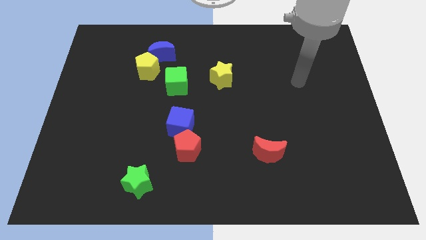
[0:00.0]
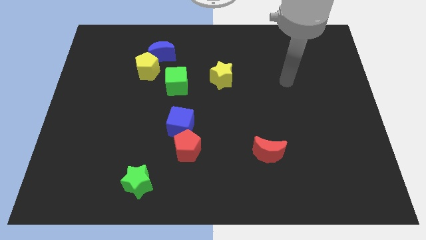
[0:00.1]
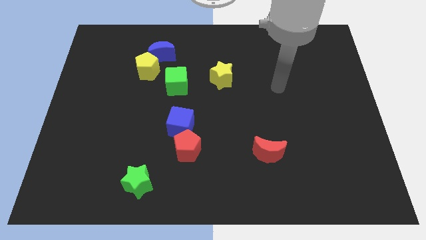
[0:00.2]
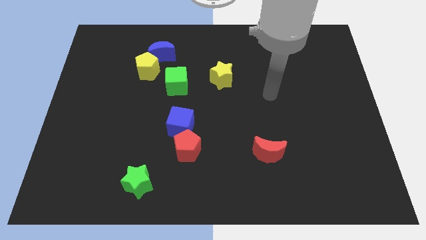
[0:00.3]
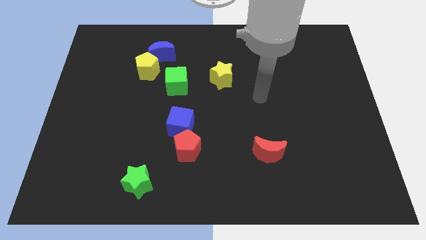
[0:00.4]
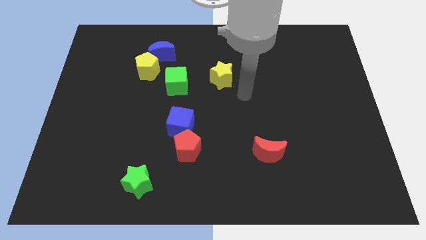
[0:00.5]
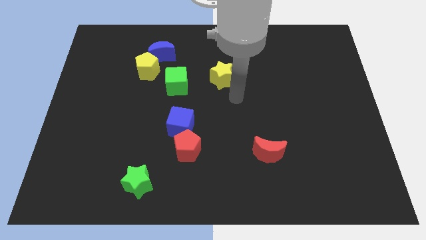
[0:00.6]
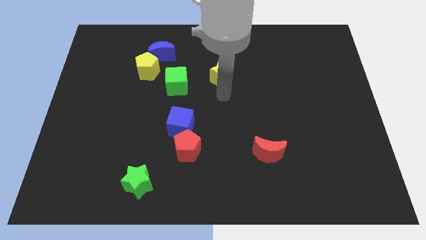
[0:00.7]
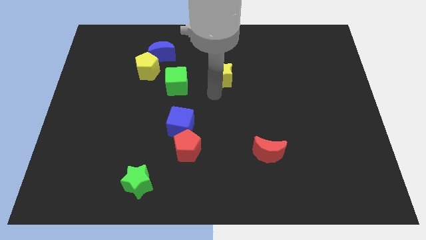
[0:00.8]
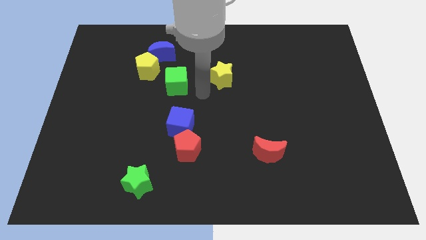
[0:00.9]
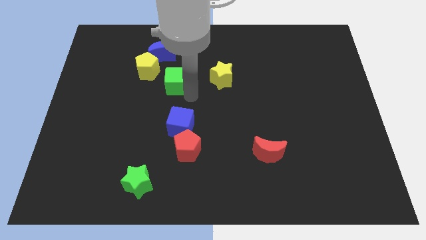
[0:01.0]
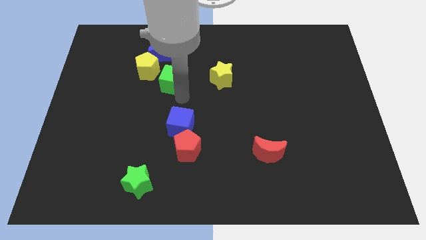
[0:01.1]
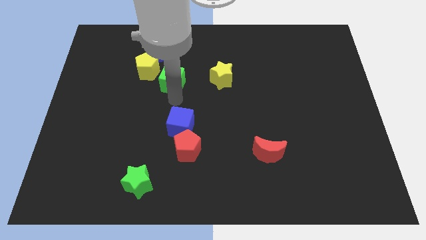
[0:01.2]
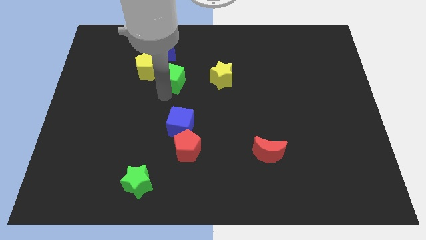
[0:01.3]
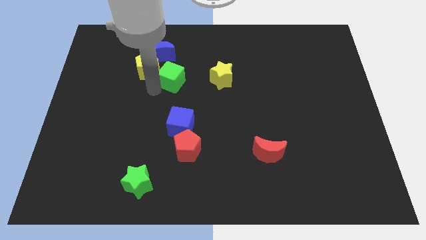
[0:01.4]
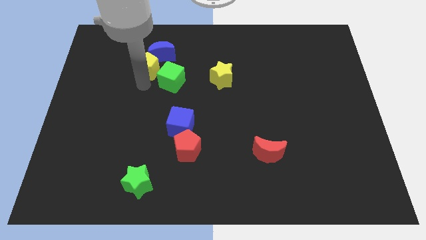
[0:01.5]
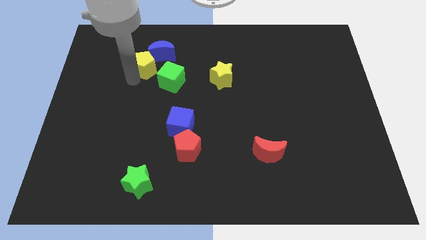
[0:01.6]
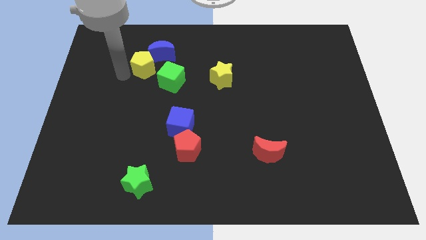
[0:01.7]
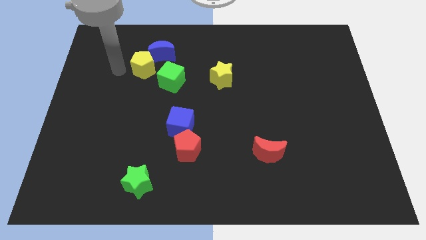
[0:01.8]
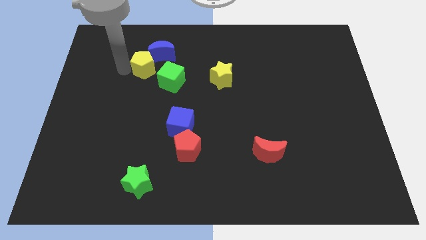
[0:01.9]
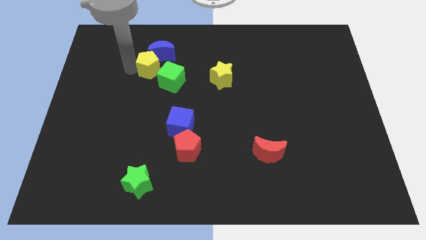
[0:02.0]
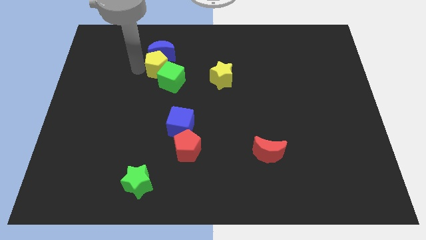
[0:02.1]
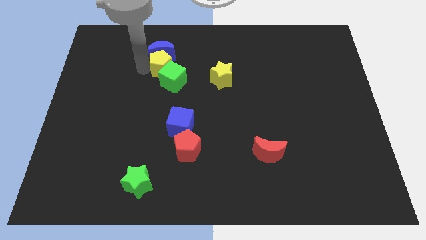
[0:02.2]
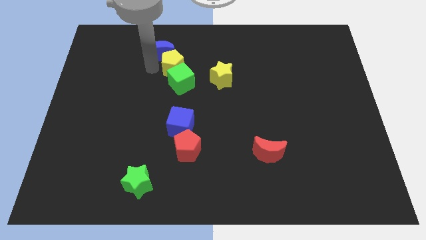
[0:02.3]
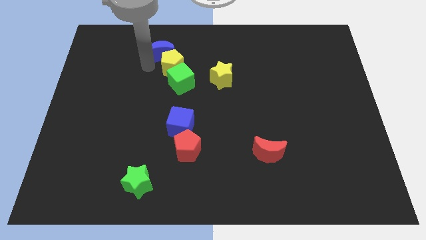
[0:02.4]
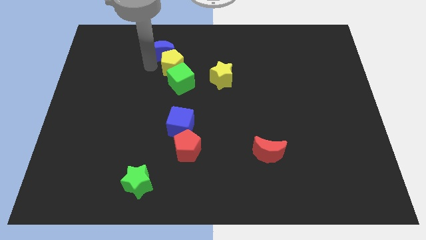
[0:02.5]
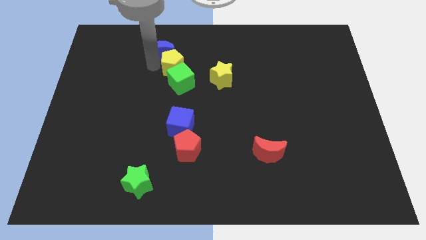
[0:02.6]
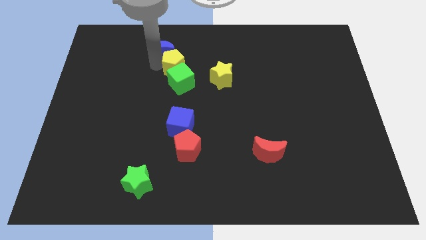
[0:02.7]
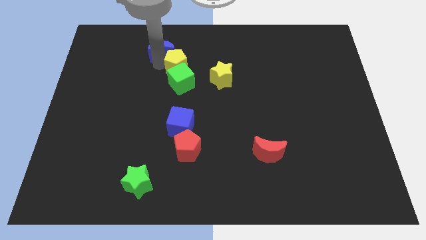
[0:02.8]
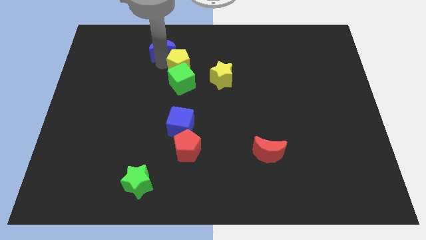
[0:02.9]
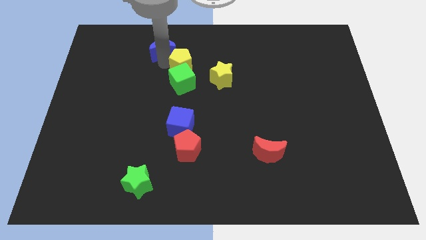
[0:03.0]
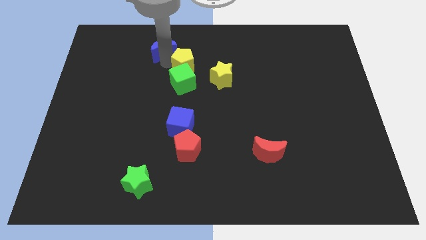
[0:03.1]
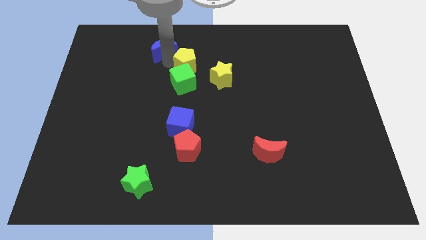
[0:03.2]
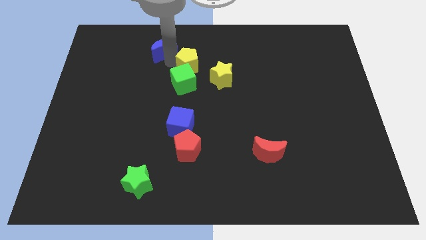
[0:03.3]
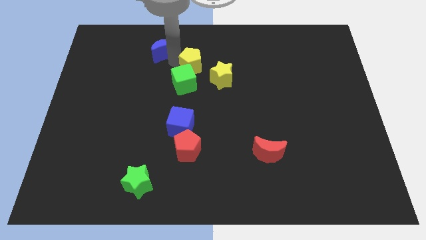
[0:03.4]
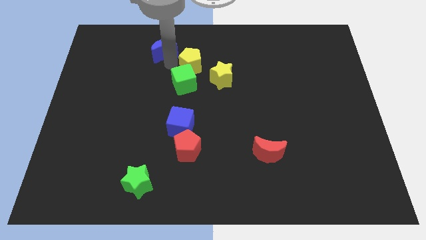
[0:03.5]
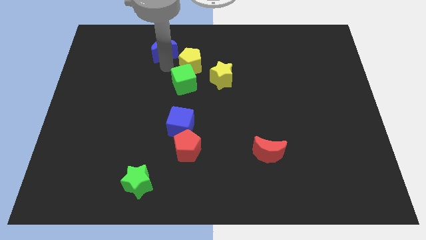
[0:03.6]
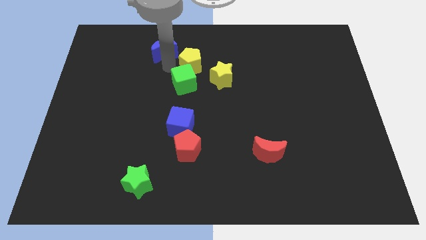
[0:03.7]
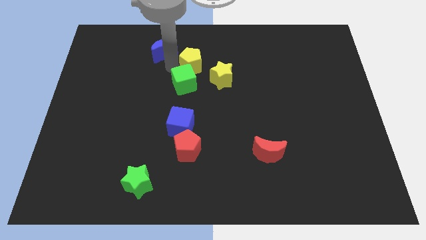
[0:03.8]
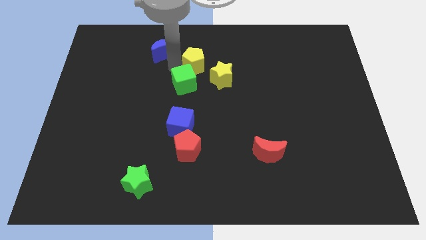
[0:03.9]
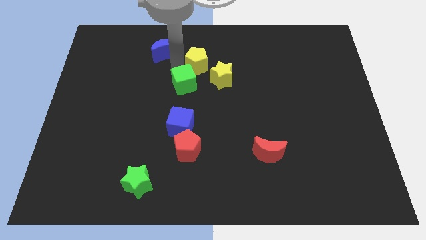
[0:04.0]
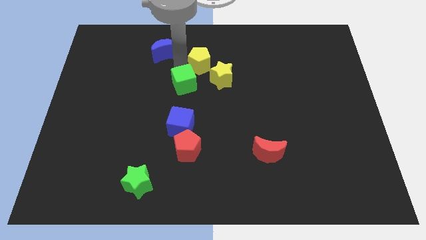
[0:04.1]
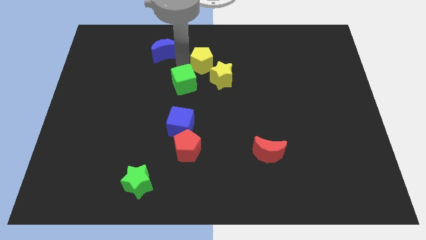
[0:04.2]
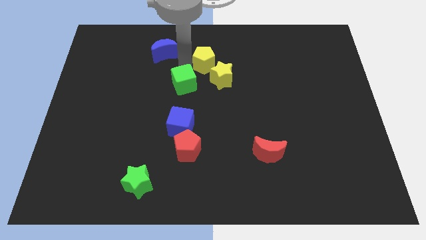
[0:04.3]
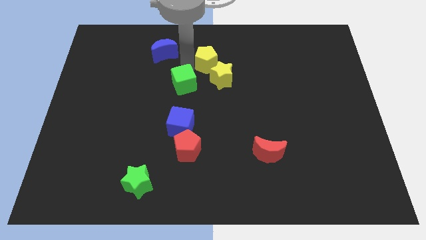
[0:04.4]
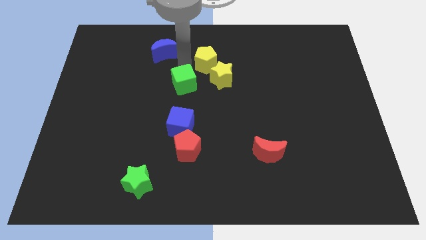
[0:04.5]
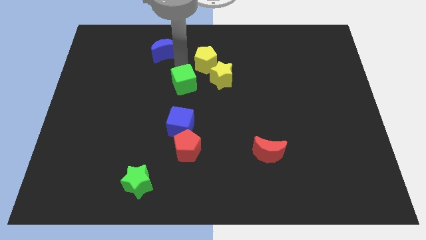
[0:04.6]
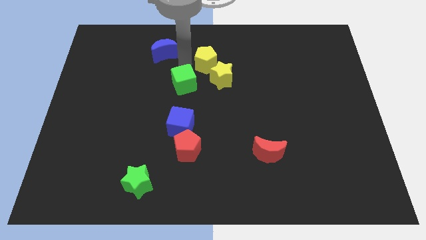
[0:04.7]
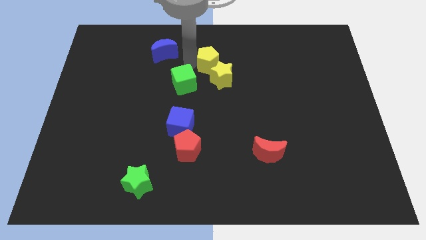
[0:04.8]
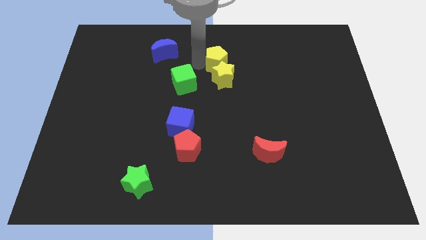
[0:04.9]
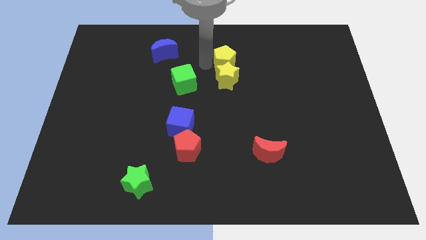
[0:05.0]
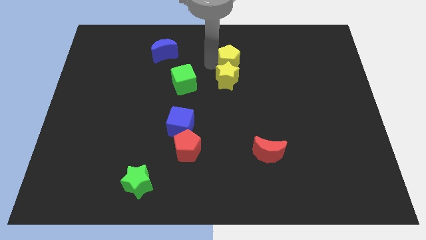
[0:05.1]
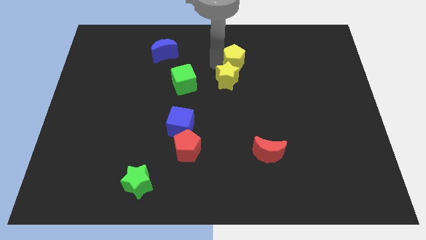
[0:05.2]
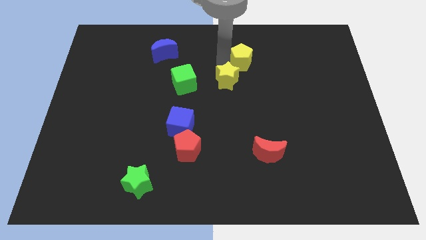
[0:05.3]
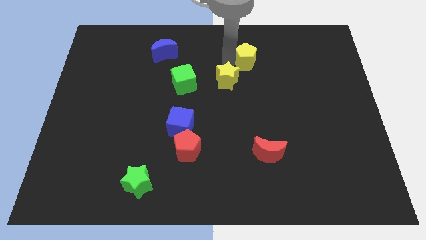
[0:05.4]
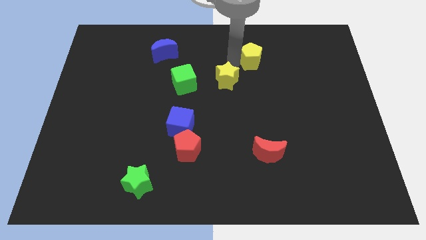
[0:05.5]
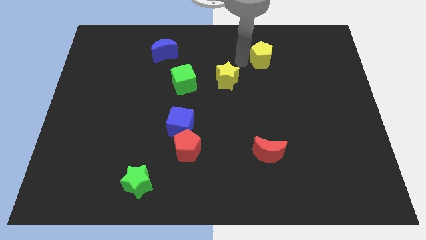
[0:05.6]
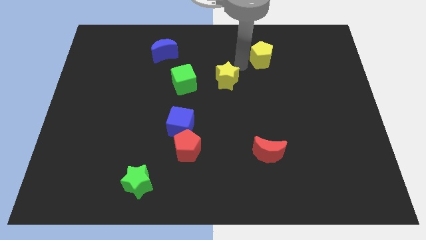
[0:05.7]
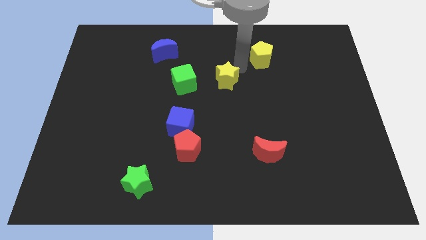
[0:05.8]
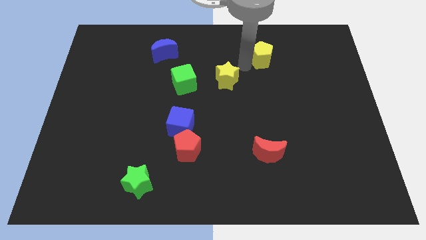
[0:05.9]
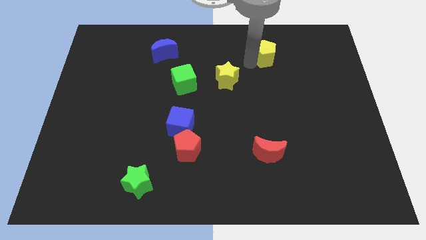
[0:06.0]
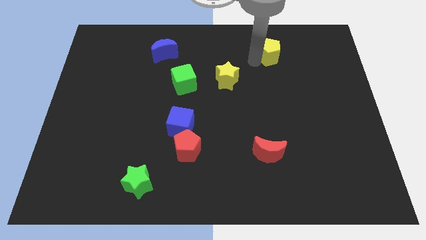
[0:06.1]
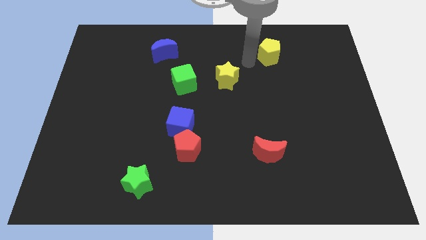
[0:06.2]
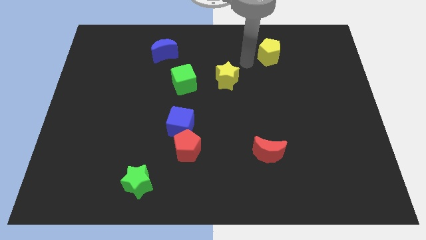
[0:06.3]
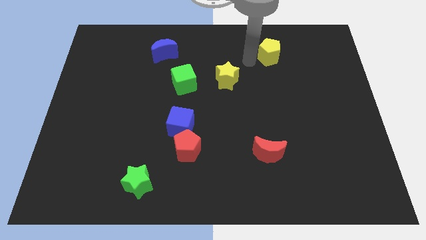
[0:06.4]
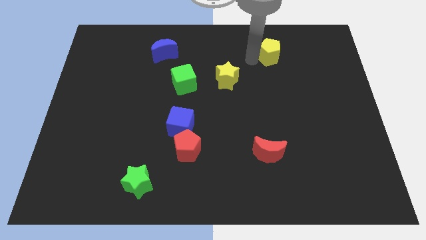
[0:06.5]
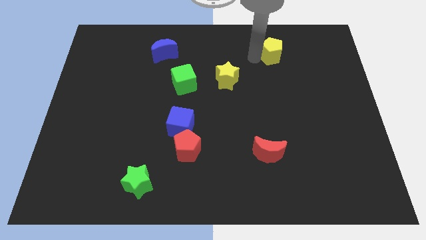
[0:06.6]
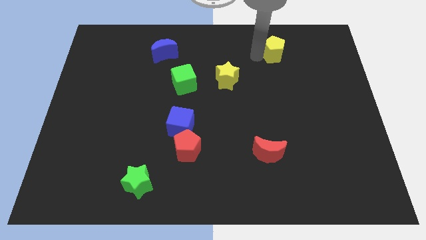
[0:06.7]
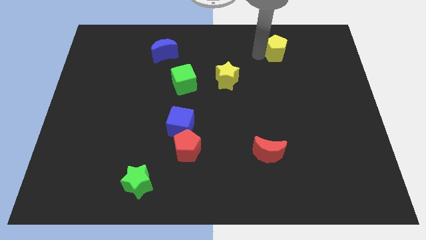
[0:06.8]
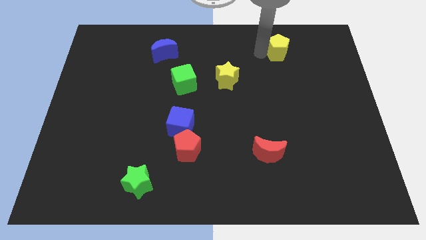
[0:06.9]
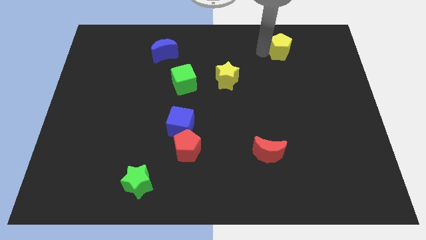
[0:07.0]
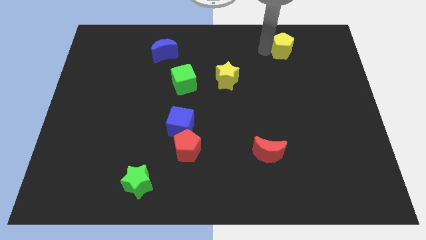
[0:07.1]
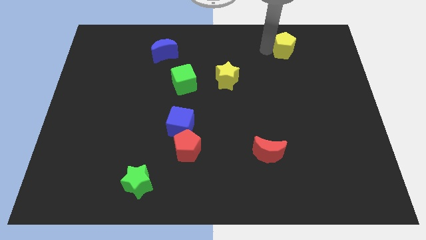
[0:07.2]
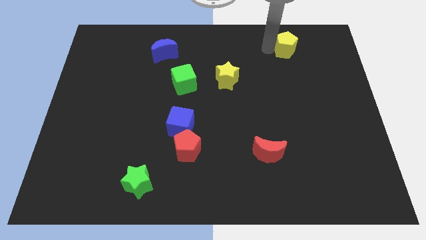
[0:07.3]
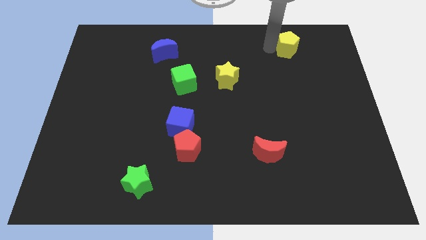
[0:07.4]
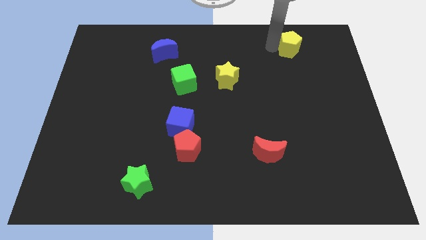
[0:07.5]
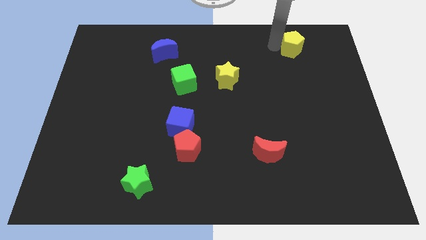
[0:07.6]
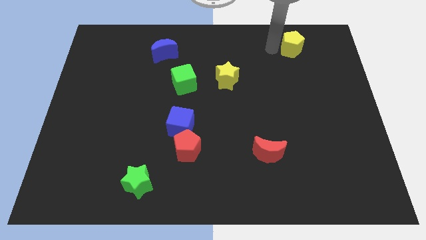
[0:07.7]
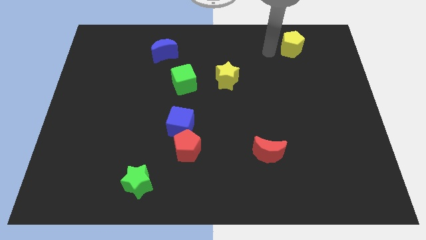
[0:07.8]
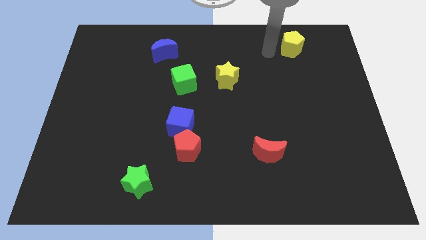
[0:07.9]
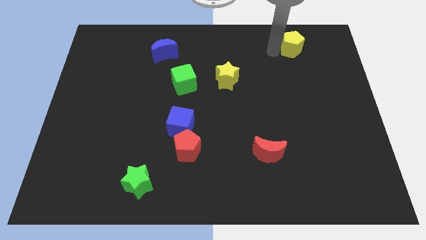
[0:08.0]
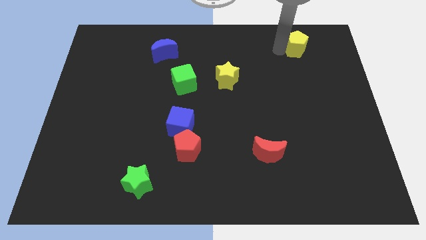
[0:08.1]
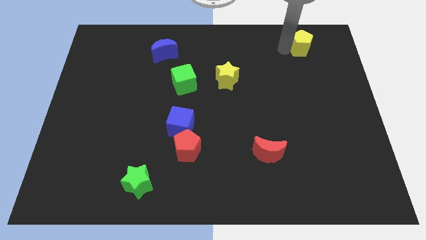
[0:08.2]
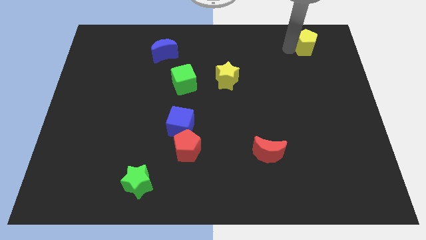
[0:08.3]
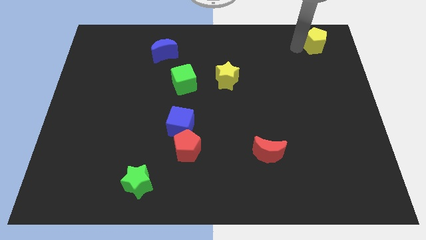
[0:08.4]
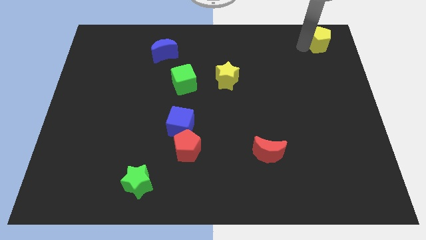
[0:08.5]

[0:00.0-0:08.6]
slide the yellow pentagon to the top right of the board
